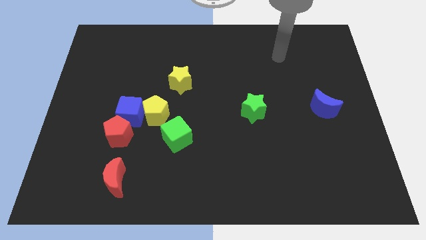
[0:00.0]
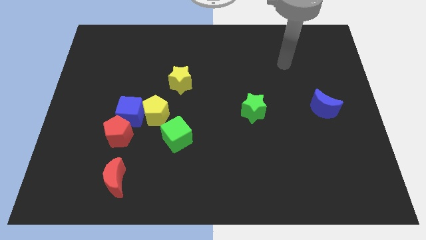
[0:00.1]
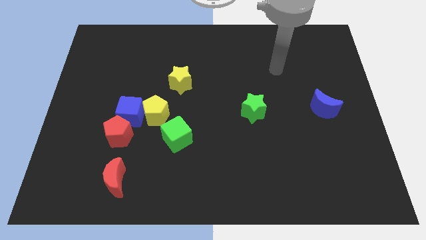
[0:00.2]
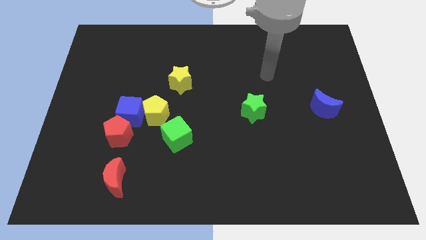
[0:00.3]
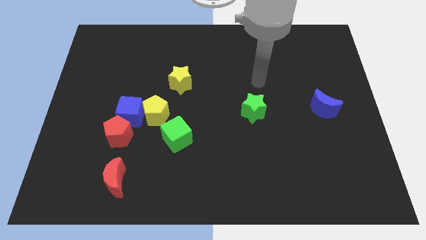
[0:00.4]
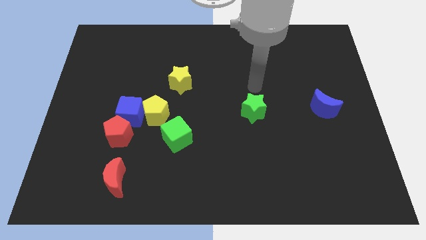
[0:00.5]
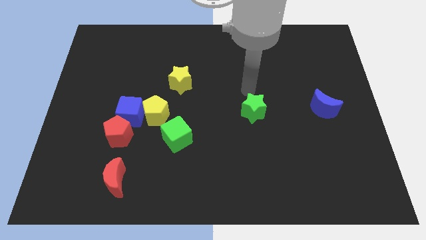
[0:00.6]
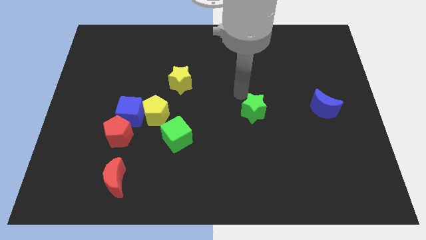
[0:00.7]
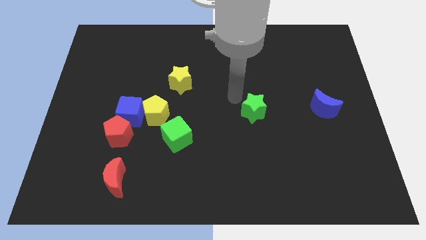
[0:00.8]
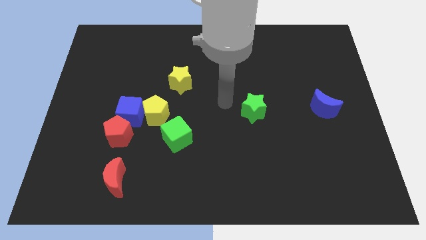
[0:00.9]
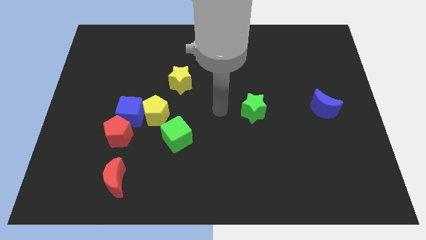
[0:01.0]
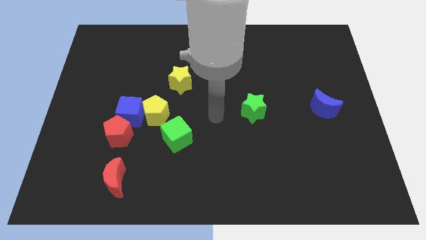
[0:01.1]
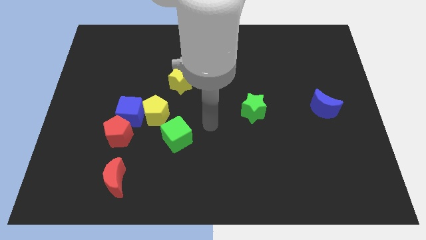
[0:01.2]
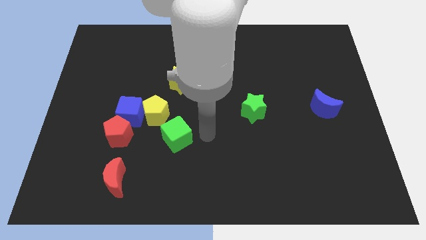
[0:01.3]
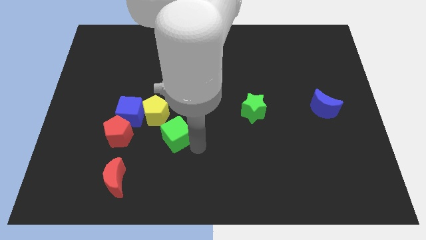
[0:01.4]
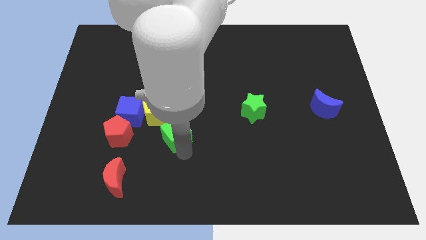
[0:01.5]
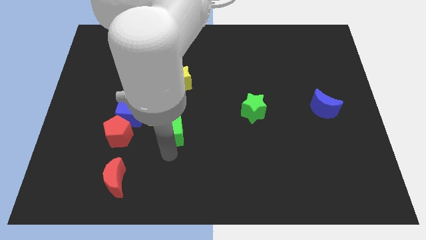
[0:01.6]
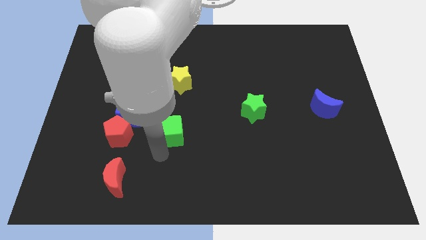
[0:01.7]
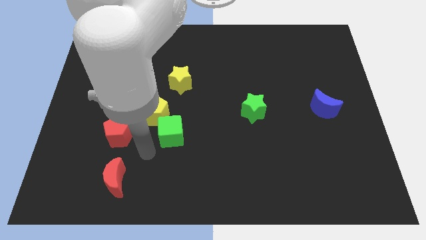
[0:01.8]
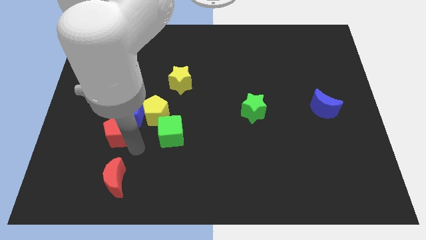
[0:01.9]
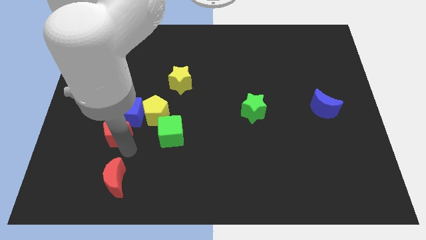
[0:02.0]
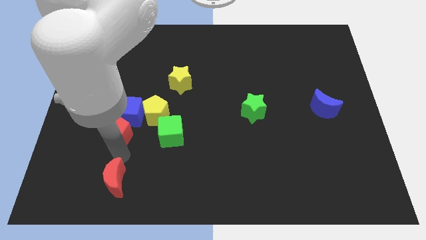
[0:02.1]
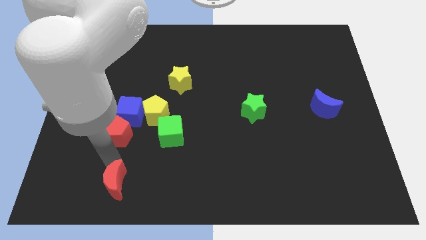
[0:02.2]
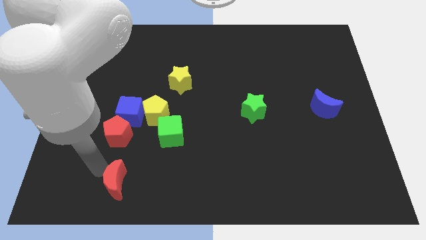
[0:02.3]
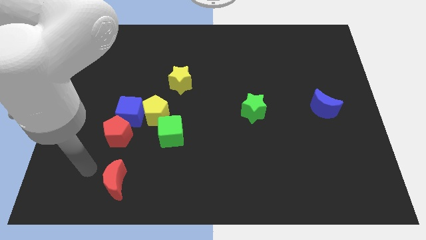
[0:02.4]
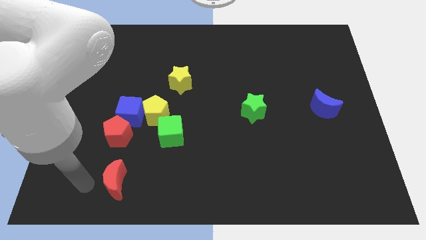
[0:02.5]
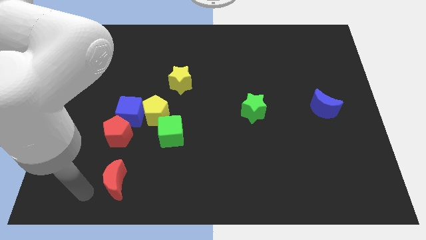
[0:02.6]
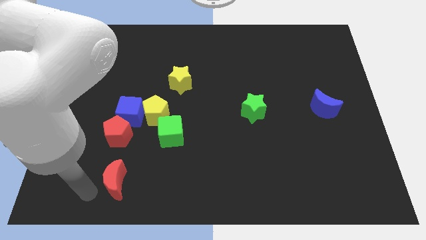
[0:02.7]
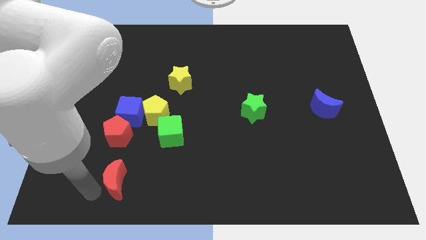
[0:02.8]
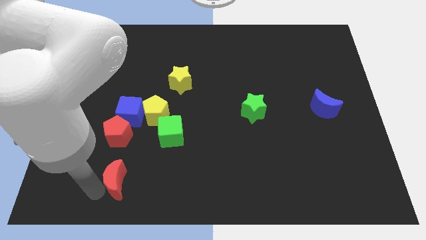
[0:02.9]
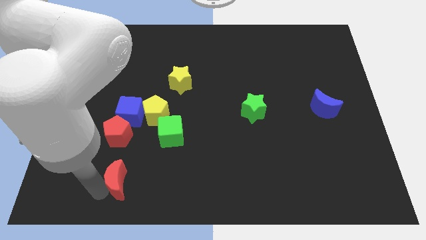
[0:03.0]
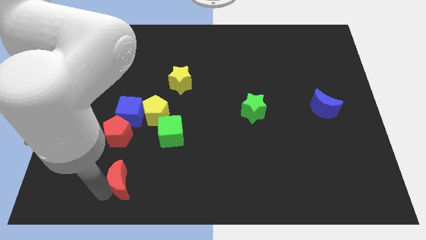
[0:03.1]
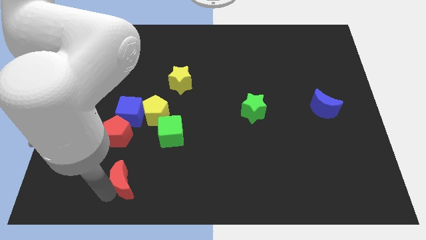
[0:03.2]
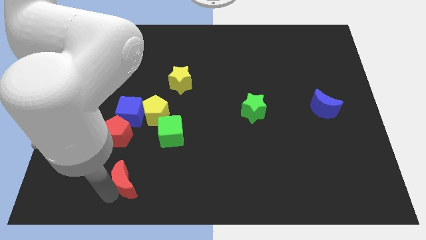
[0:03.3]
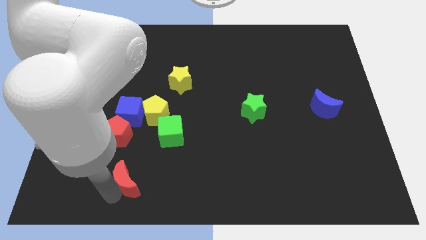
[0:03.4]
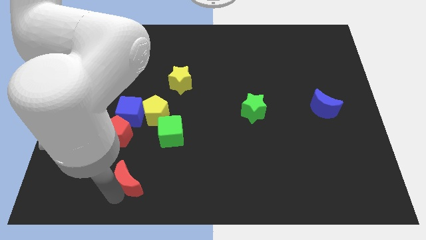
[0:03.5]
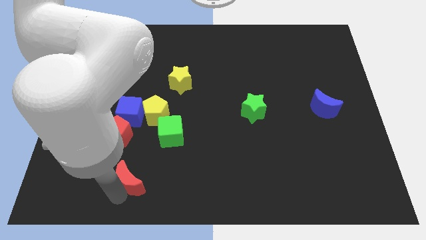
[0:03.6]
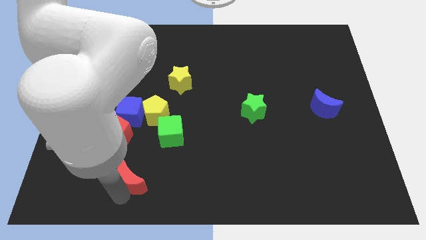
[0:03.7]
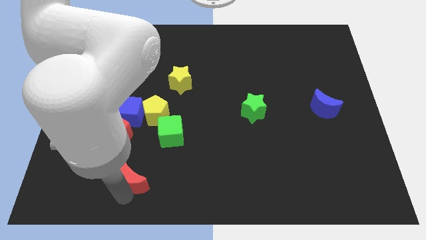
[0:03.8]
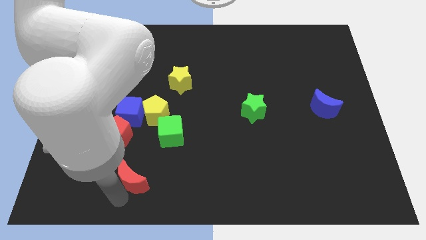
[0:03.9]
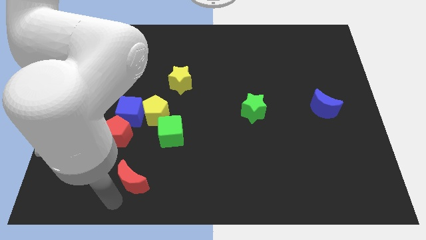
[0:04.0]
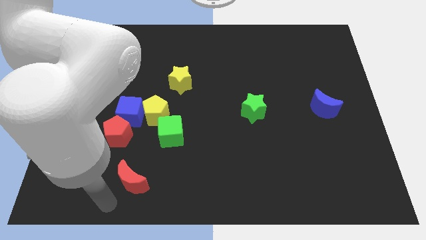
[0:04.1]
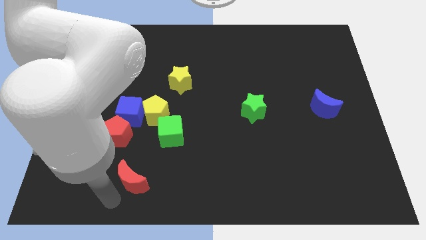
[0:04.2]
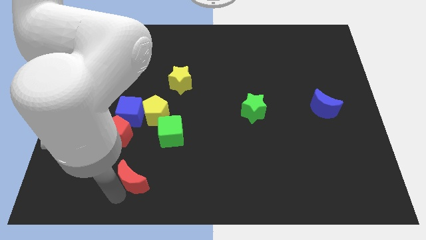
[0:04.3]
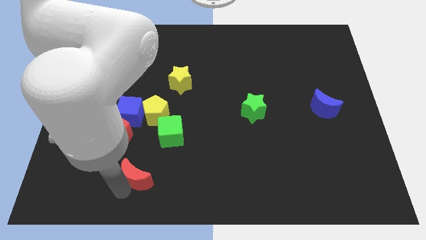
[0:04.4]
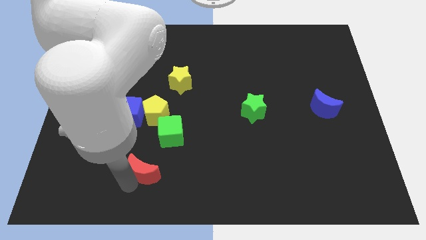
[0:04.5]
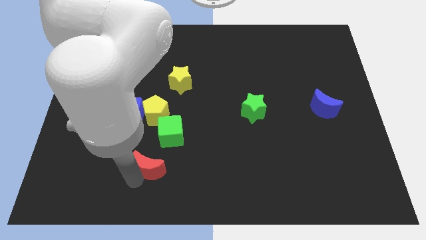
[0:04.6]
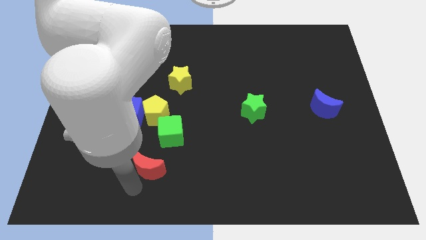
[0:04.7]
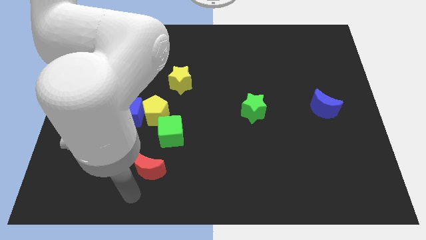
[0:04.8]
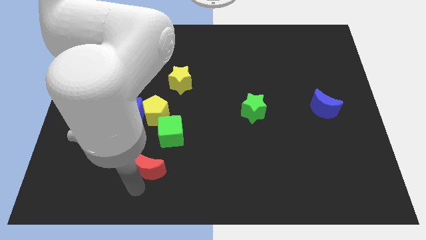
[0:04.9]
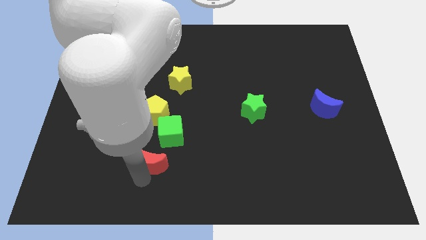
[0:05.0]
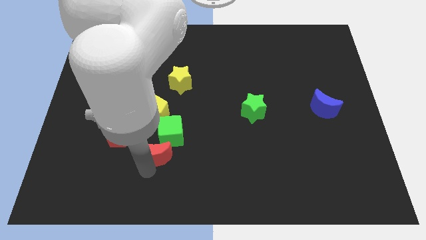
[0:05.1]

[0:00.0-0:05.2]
slide the red moon close to the green cube

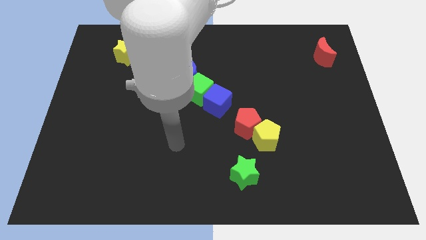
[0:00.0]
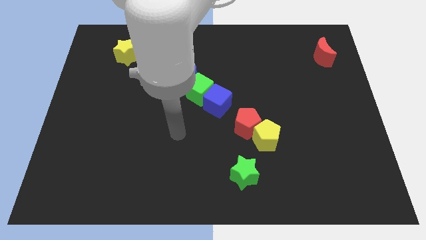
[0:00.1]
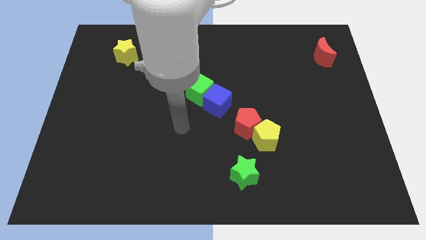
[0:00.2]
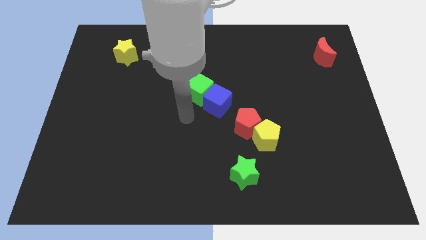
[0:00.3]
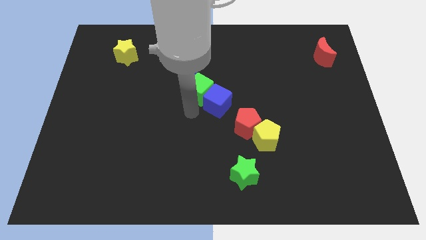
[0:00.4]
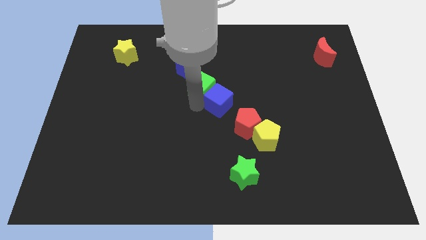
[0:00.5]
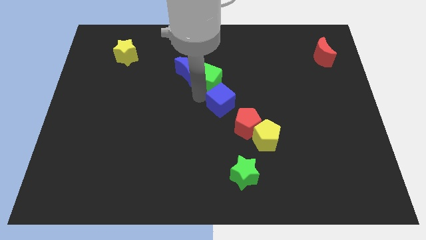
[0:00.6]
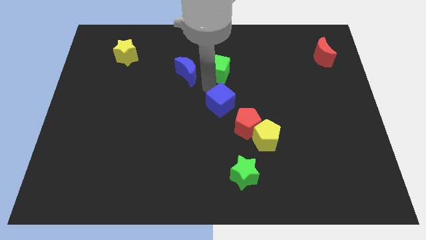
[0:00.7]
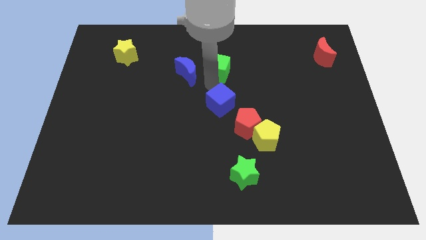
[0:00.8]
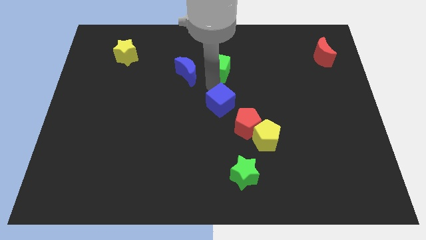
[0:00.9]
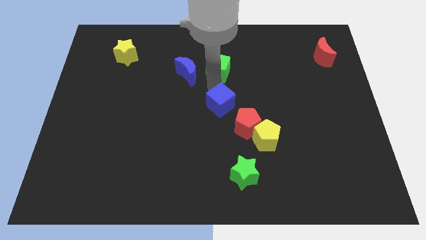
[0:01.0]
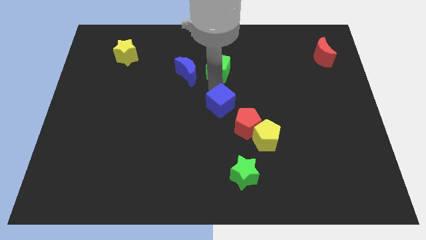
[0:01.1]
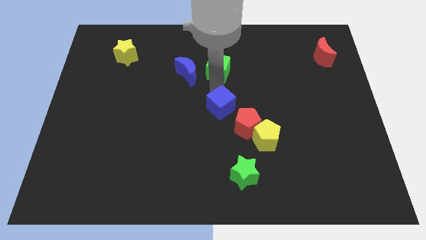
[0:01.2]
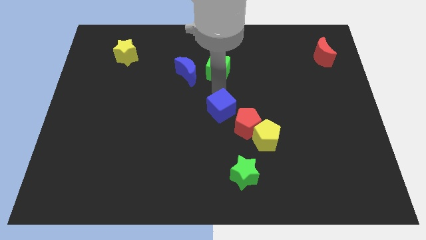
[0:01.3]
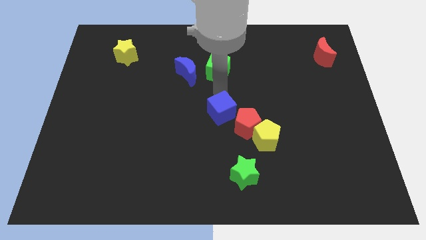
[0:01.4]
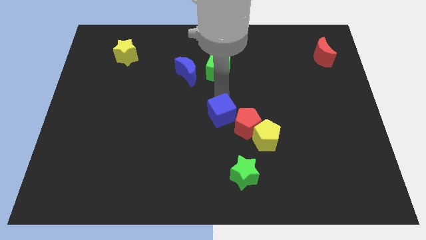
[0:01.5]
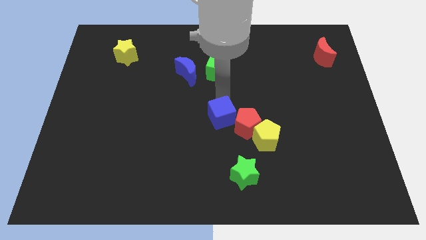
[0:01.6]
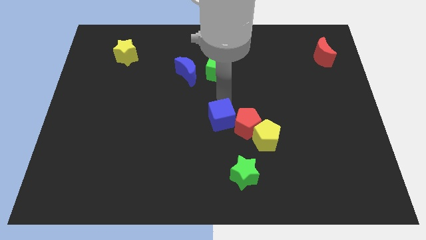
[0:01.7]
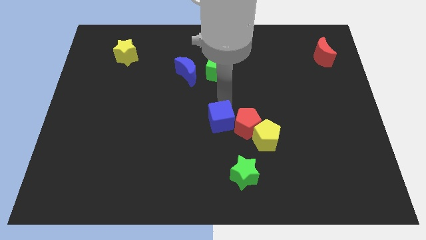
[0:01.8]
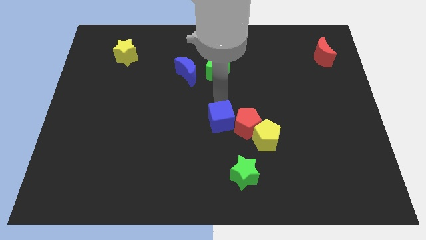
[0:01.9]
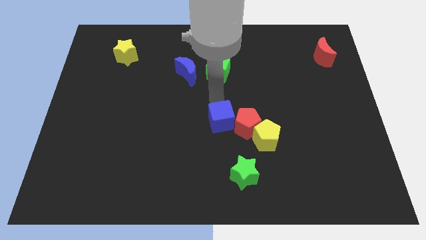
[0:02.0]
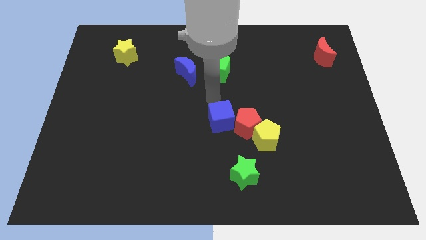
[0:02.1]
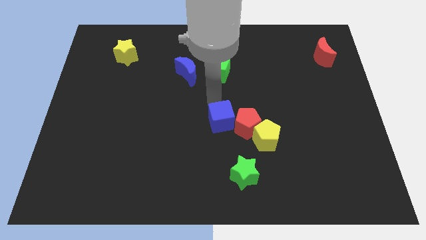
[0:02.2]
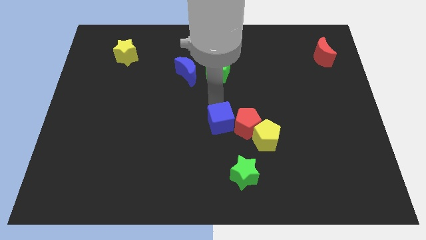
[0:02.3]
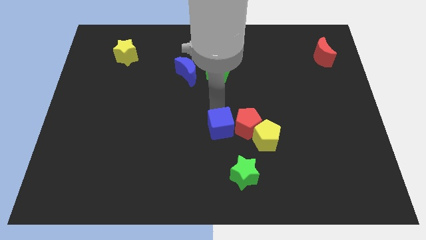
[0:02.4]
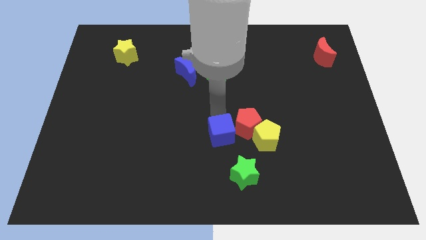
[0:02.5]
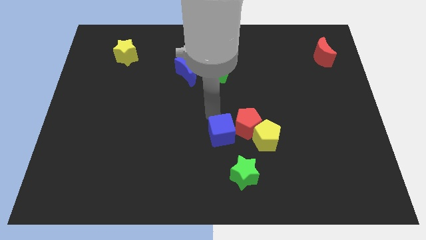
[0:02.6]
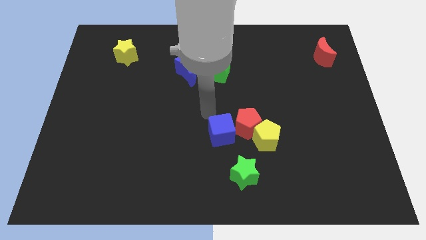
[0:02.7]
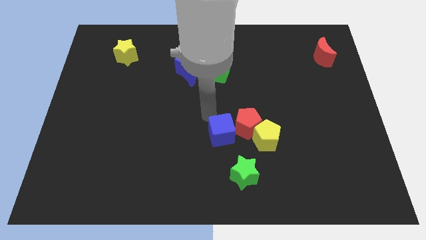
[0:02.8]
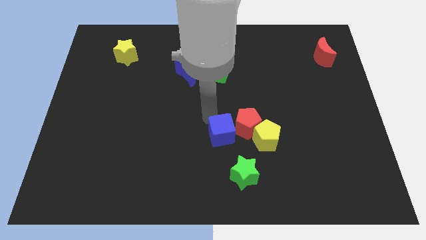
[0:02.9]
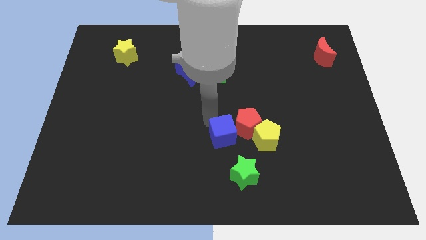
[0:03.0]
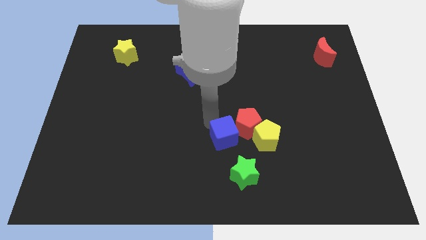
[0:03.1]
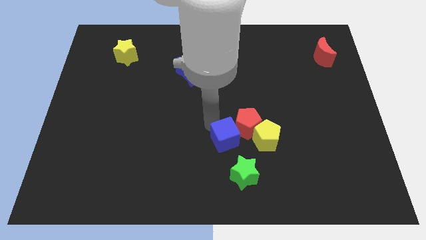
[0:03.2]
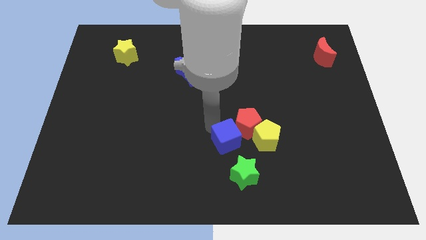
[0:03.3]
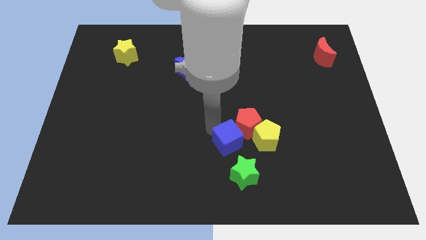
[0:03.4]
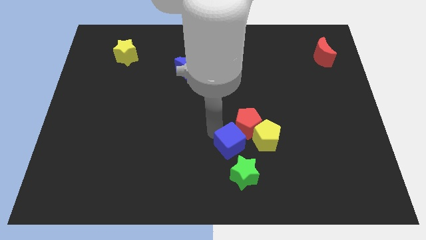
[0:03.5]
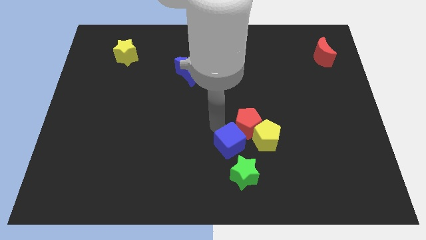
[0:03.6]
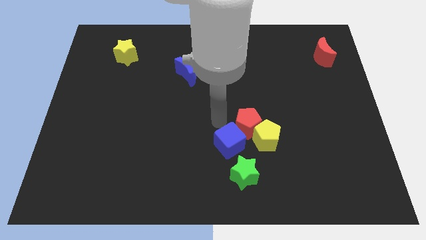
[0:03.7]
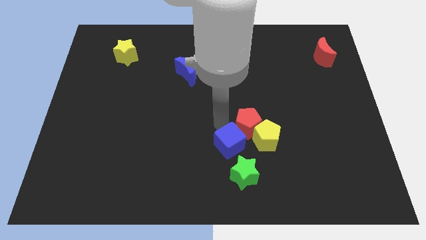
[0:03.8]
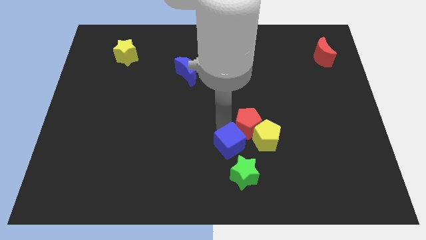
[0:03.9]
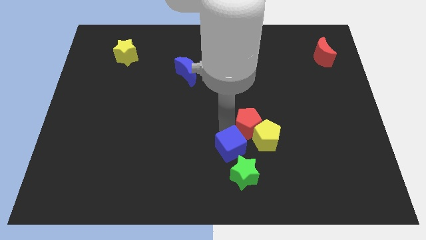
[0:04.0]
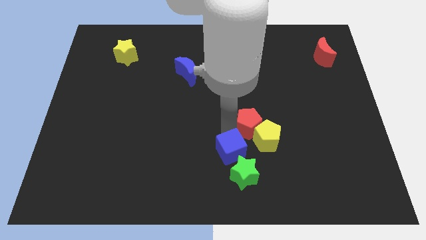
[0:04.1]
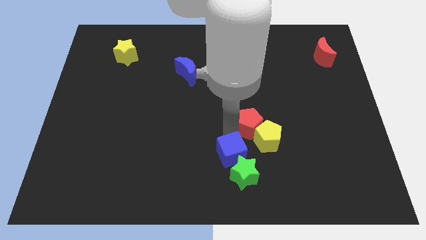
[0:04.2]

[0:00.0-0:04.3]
slide the blue cube to the green star
